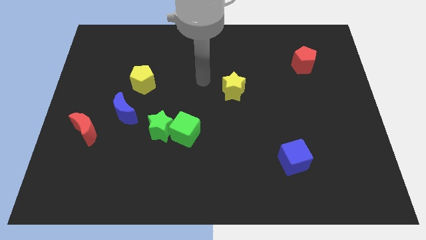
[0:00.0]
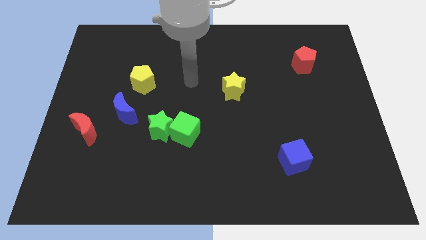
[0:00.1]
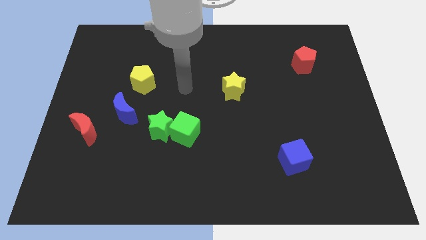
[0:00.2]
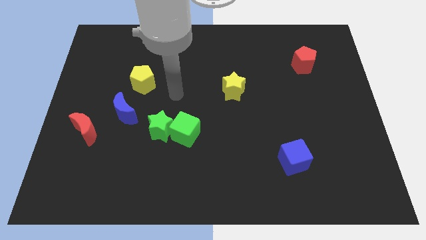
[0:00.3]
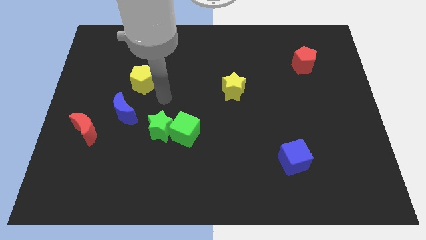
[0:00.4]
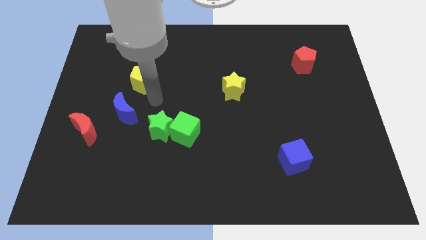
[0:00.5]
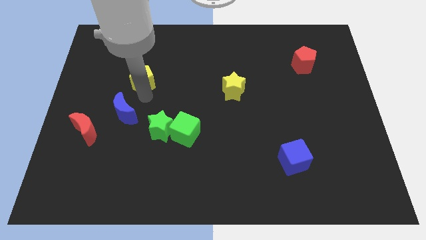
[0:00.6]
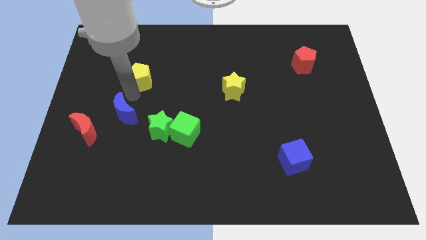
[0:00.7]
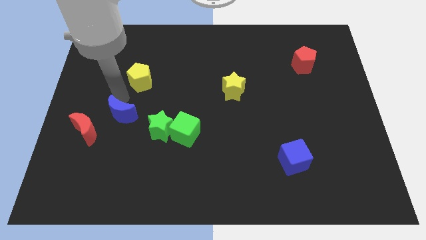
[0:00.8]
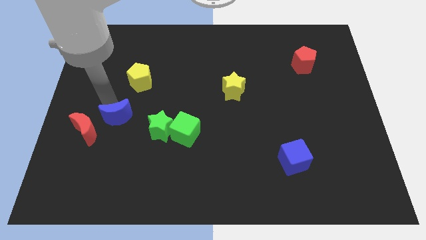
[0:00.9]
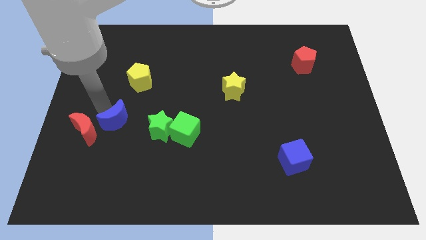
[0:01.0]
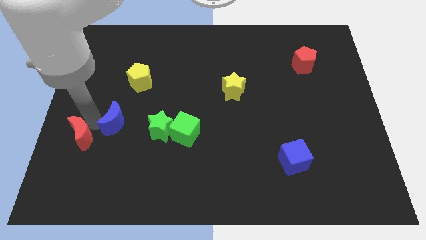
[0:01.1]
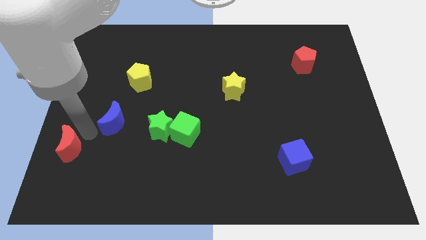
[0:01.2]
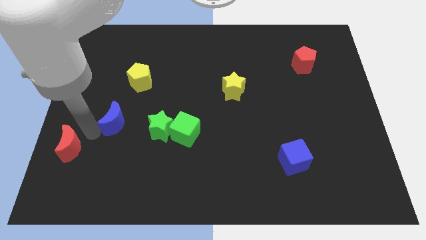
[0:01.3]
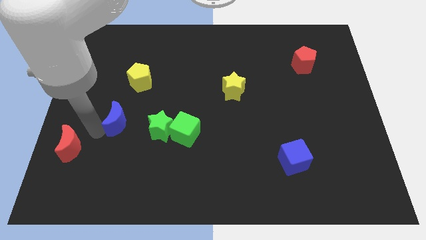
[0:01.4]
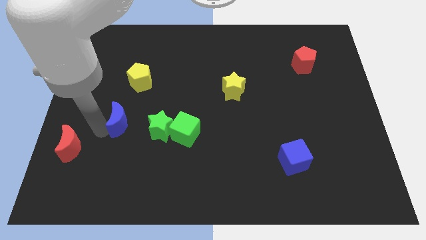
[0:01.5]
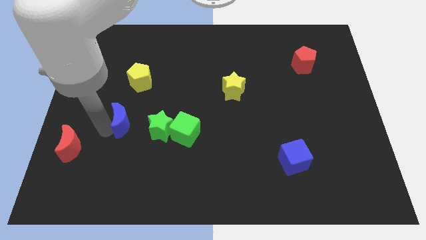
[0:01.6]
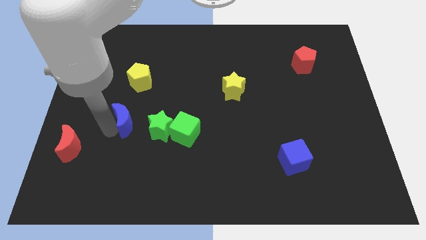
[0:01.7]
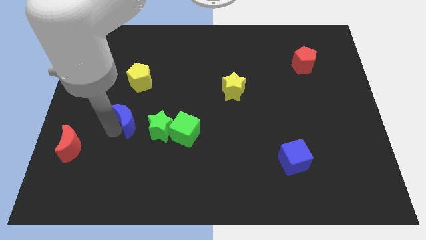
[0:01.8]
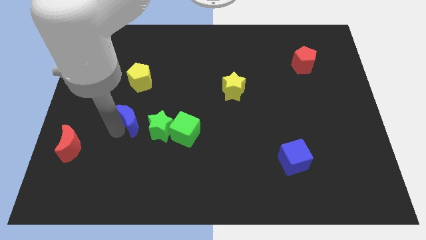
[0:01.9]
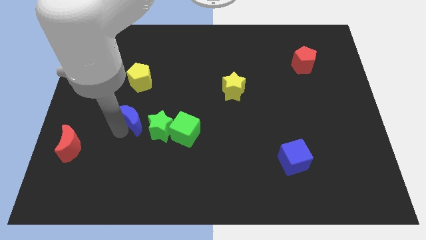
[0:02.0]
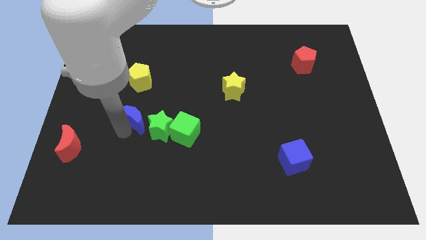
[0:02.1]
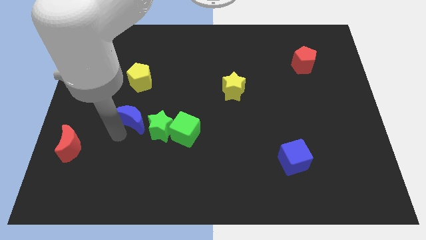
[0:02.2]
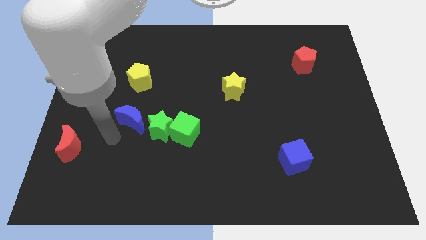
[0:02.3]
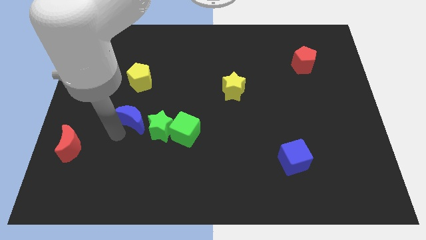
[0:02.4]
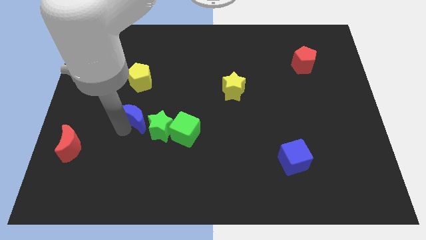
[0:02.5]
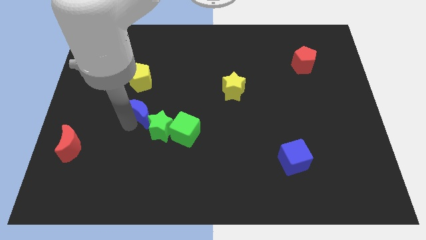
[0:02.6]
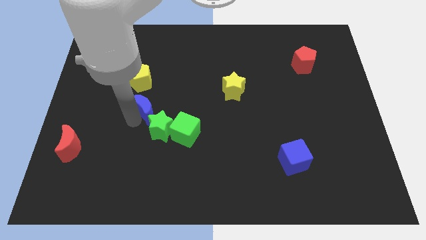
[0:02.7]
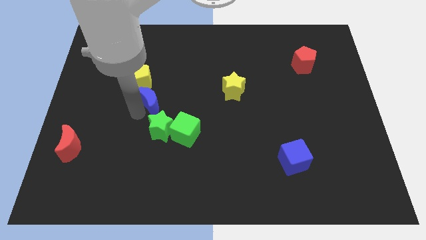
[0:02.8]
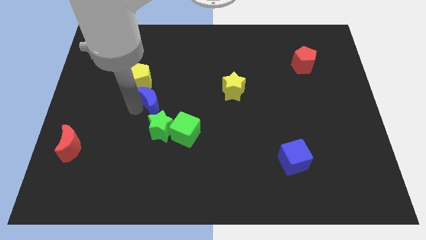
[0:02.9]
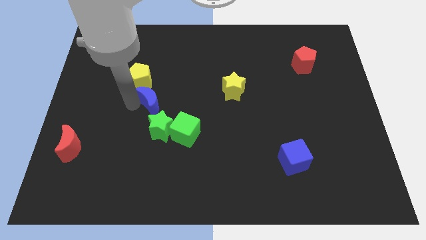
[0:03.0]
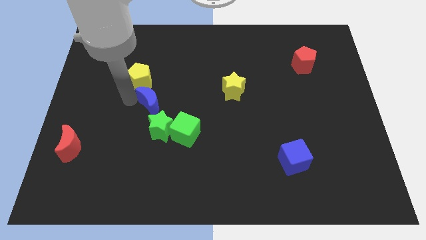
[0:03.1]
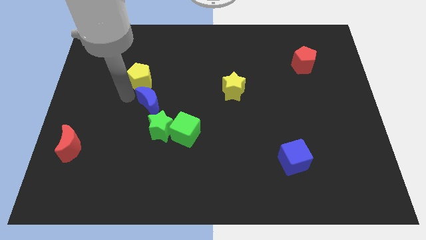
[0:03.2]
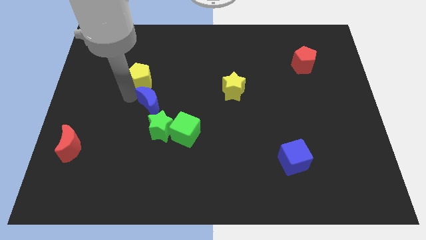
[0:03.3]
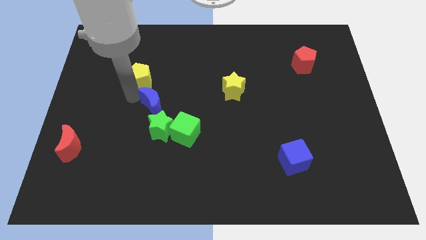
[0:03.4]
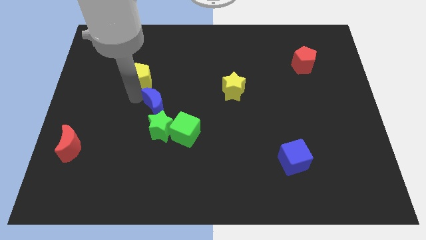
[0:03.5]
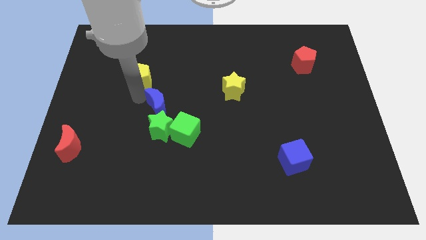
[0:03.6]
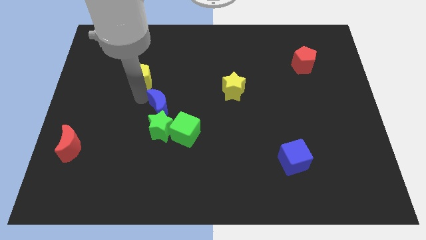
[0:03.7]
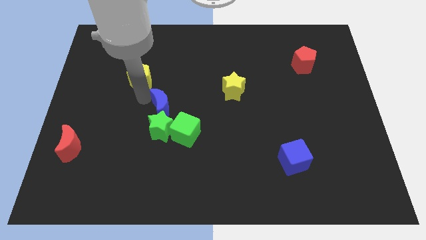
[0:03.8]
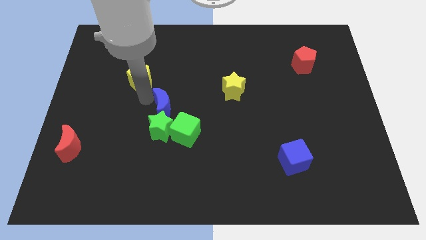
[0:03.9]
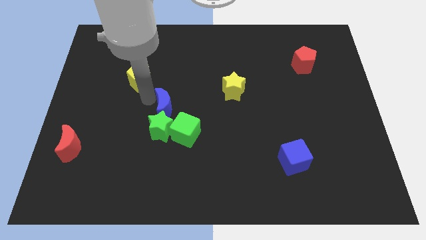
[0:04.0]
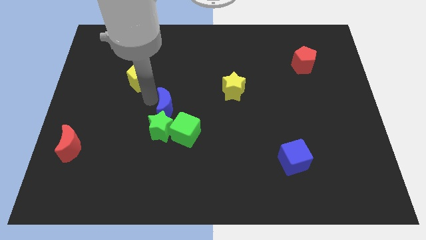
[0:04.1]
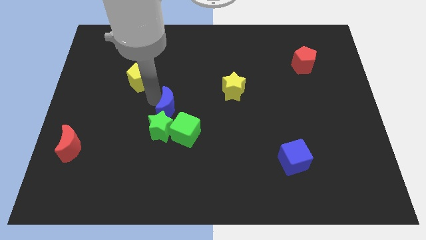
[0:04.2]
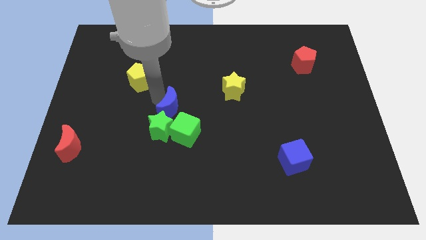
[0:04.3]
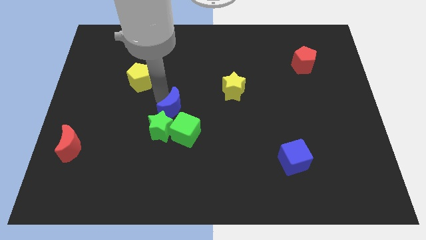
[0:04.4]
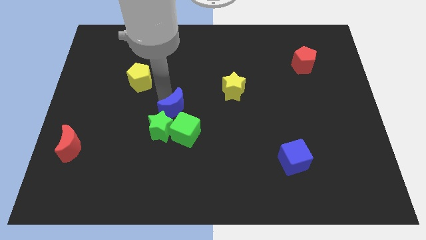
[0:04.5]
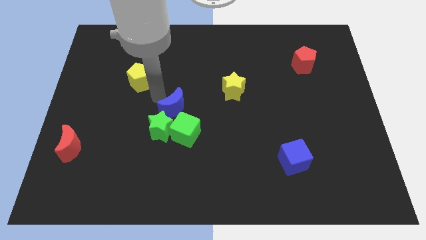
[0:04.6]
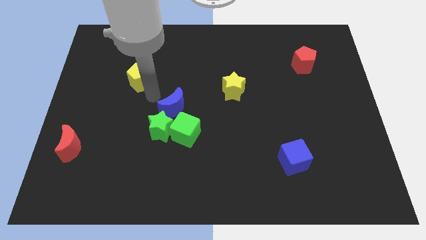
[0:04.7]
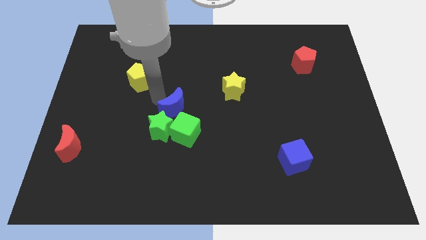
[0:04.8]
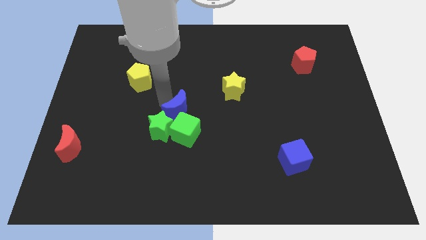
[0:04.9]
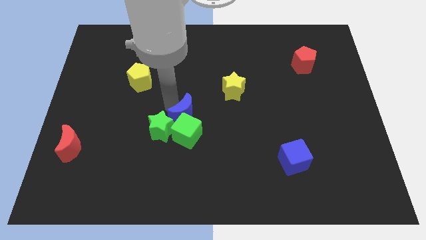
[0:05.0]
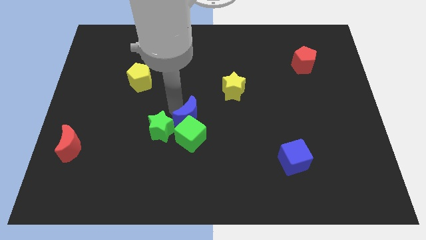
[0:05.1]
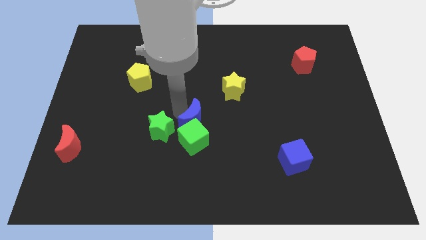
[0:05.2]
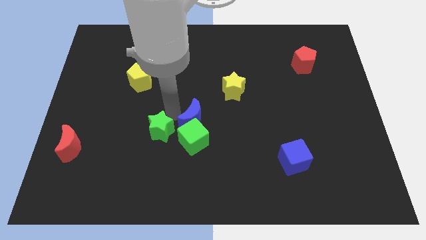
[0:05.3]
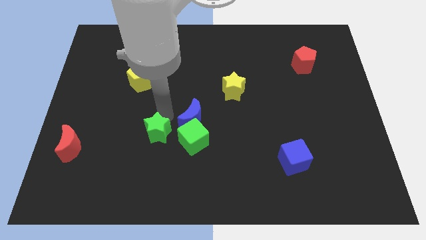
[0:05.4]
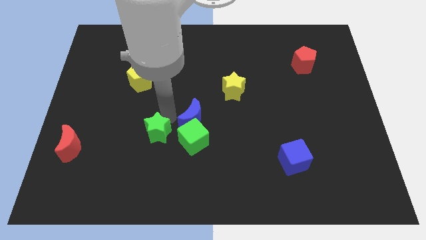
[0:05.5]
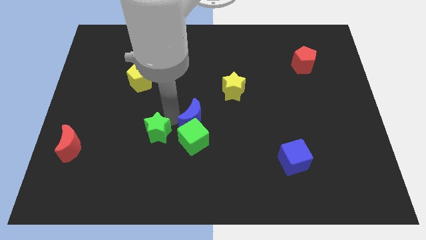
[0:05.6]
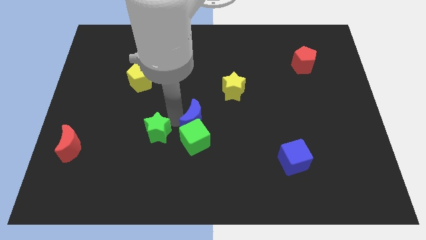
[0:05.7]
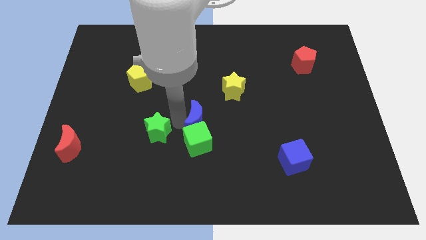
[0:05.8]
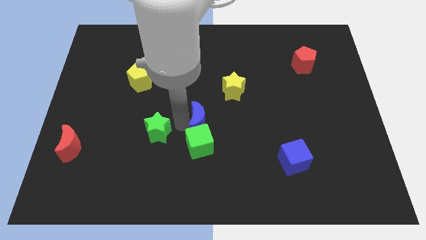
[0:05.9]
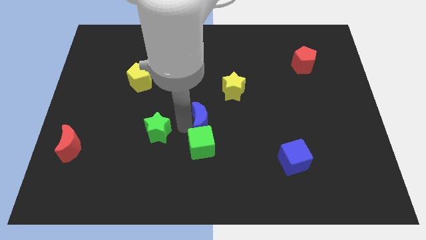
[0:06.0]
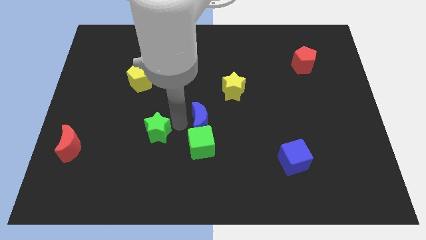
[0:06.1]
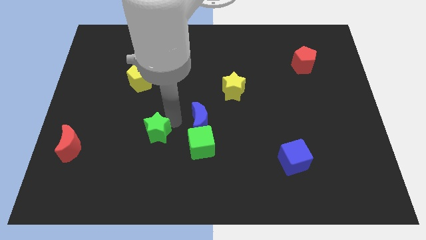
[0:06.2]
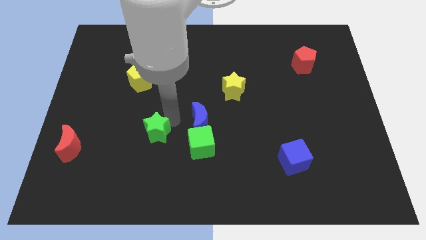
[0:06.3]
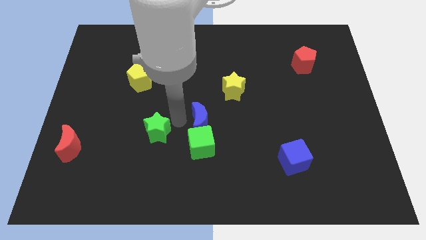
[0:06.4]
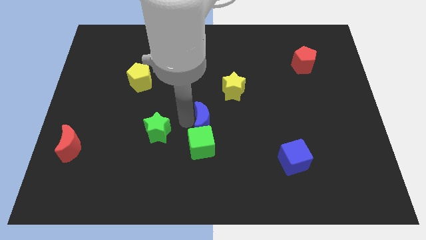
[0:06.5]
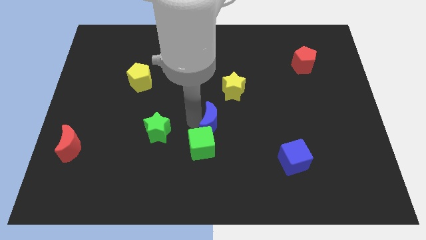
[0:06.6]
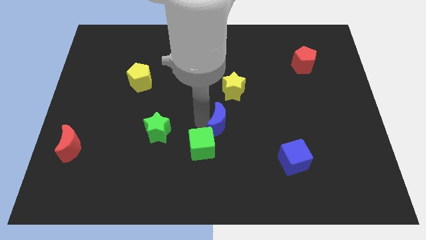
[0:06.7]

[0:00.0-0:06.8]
put the blue moon to the bottom side of the yellow star

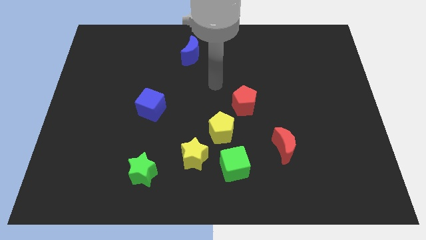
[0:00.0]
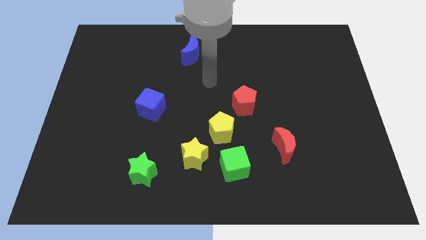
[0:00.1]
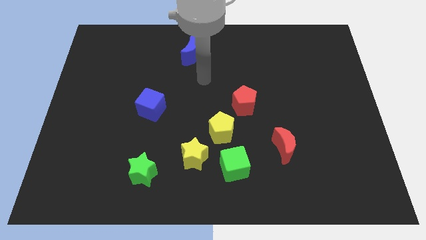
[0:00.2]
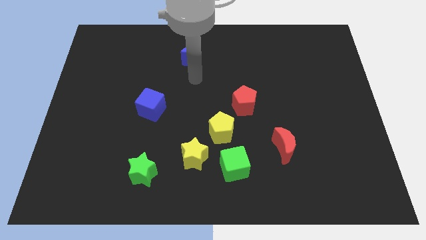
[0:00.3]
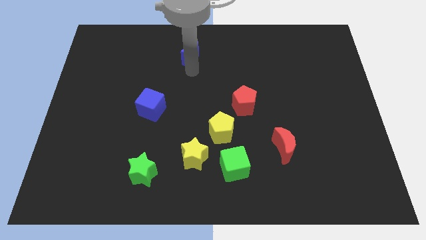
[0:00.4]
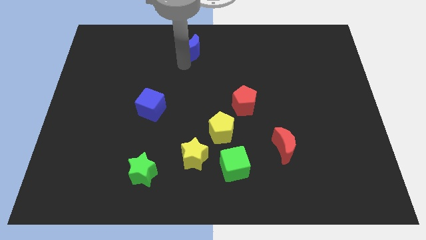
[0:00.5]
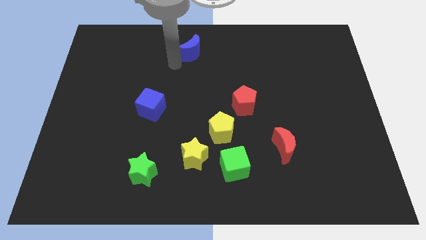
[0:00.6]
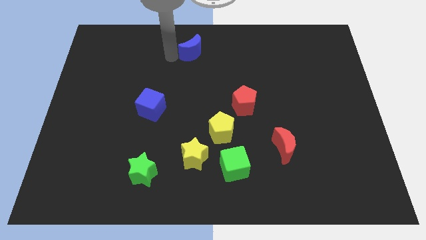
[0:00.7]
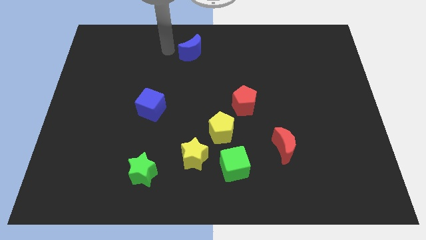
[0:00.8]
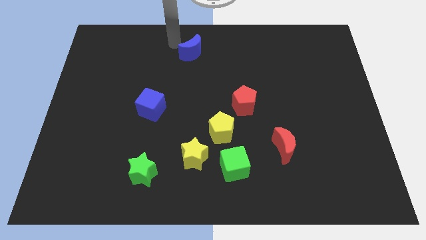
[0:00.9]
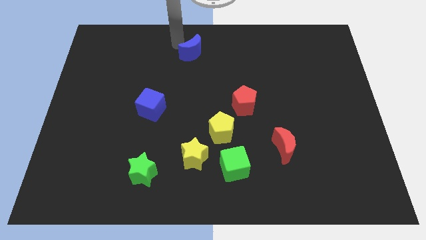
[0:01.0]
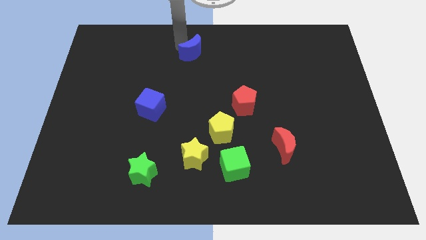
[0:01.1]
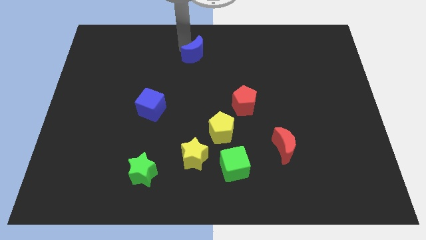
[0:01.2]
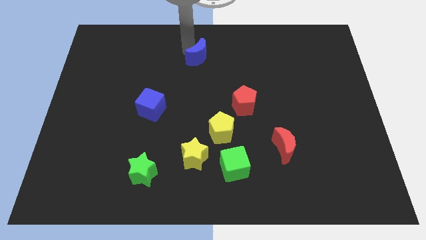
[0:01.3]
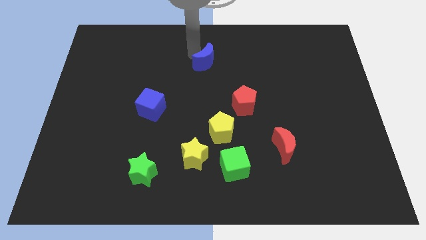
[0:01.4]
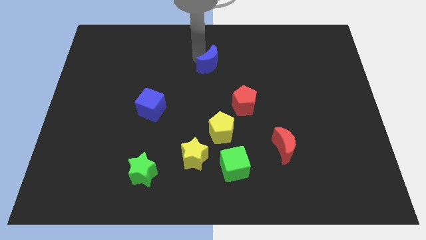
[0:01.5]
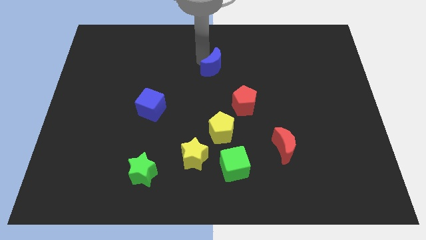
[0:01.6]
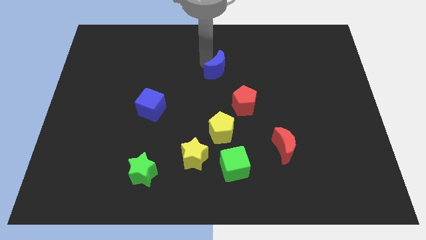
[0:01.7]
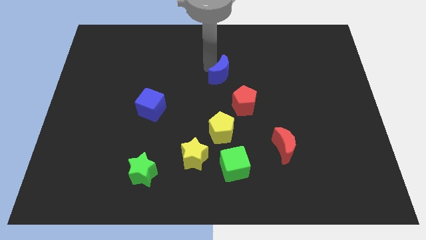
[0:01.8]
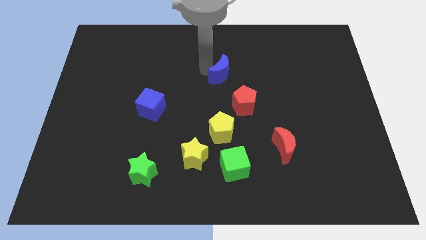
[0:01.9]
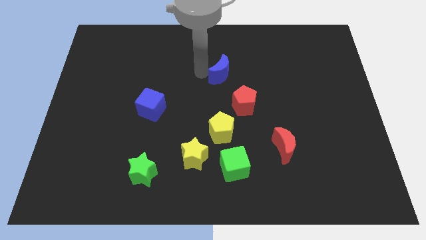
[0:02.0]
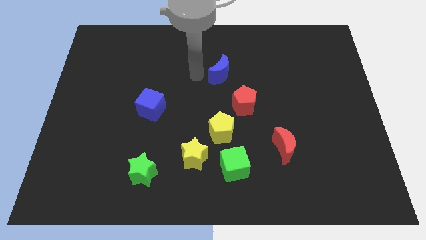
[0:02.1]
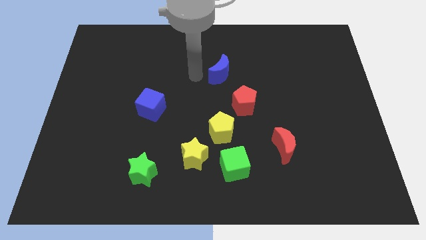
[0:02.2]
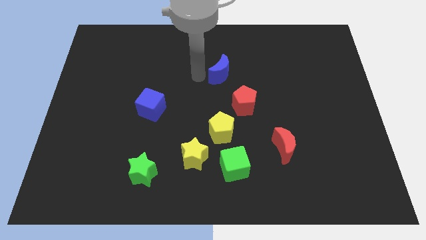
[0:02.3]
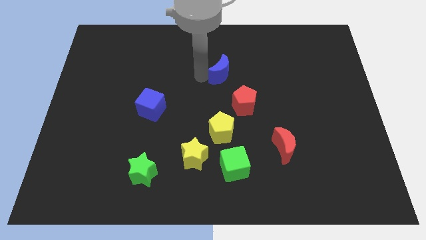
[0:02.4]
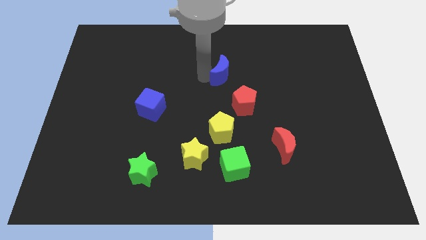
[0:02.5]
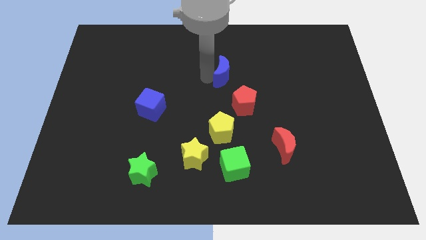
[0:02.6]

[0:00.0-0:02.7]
slide the blue moon to the top side of the red pentagon
